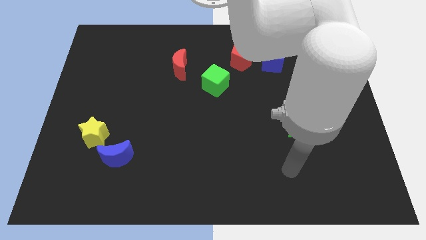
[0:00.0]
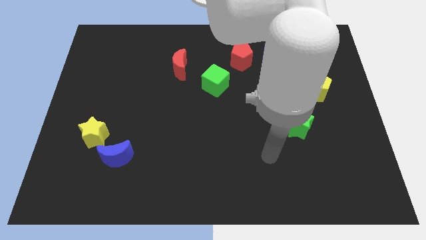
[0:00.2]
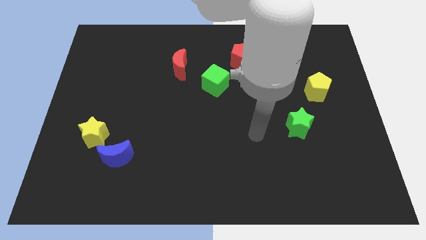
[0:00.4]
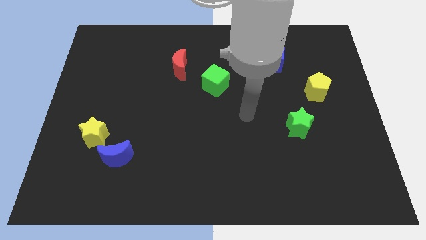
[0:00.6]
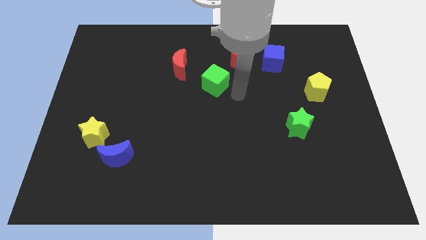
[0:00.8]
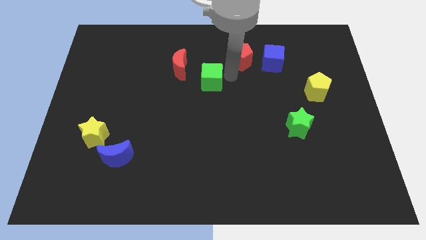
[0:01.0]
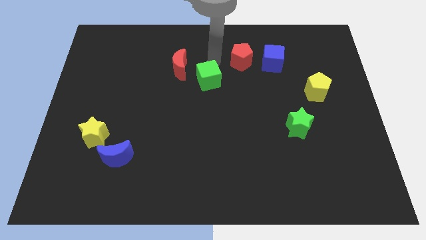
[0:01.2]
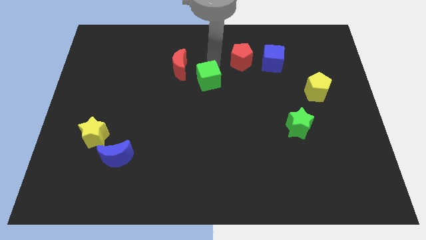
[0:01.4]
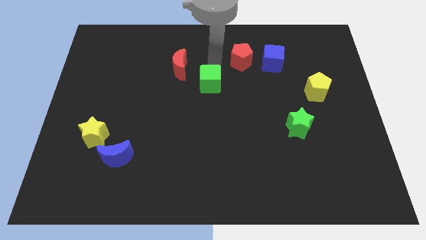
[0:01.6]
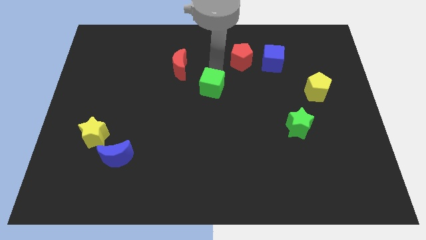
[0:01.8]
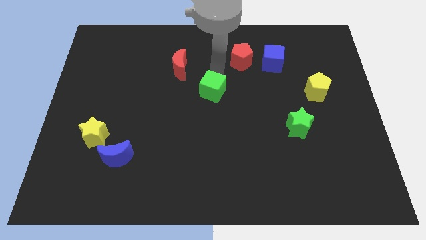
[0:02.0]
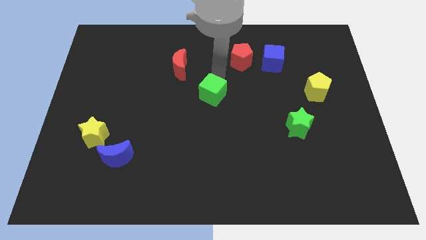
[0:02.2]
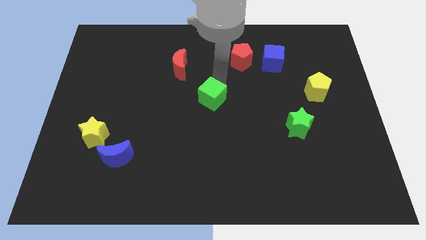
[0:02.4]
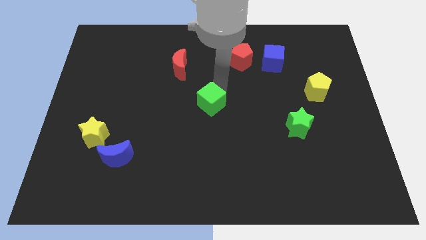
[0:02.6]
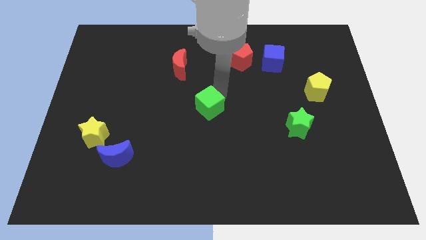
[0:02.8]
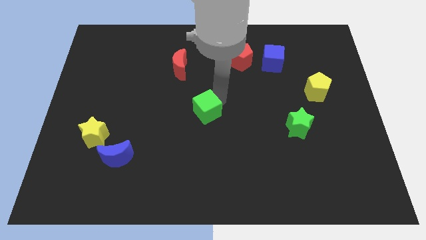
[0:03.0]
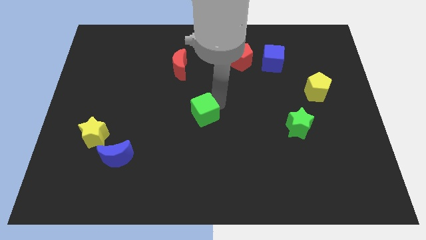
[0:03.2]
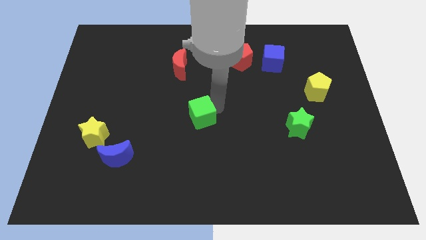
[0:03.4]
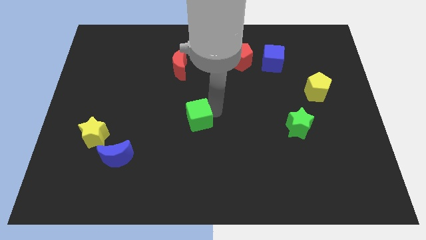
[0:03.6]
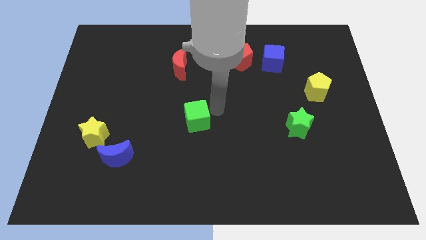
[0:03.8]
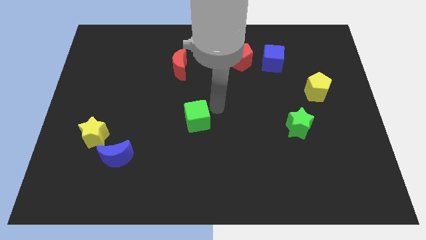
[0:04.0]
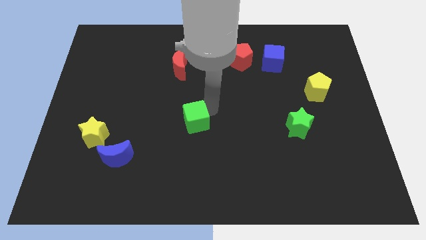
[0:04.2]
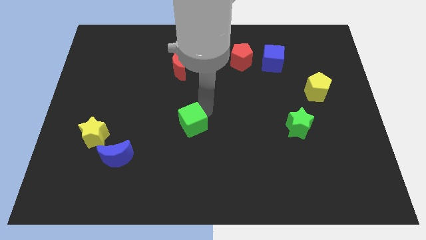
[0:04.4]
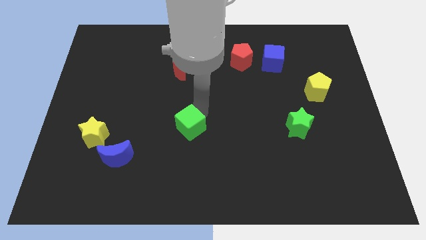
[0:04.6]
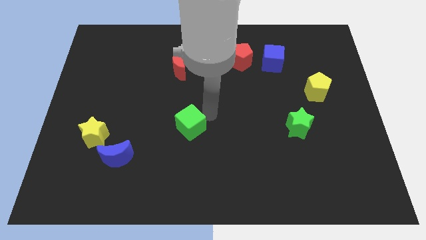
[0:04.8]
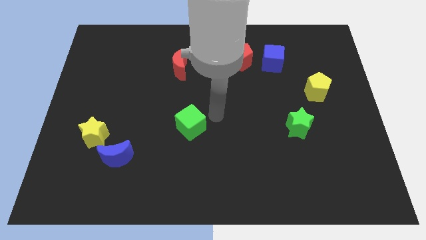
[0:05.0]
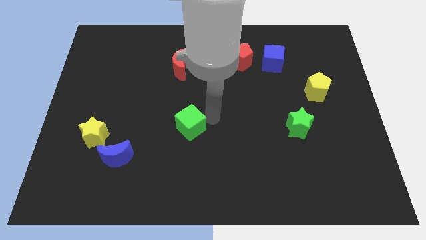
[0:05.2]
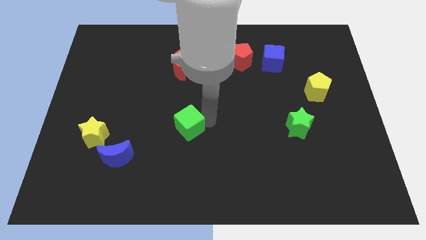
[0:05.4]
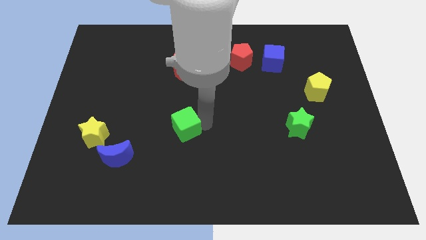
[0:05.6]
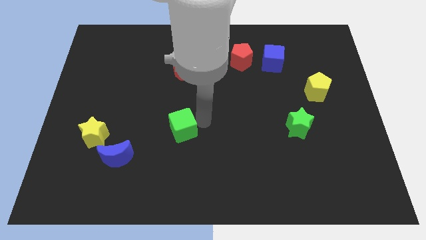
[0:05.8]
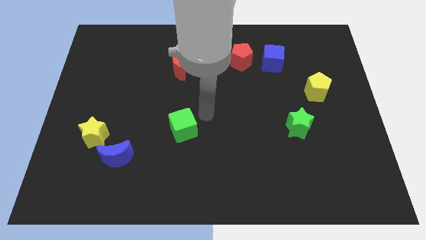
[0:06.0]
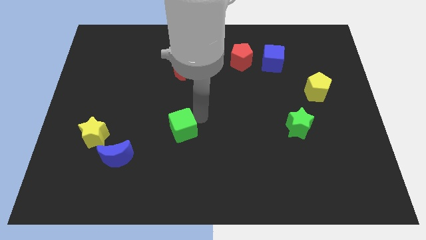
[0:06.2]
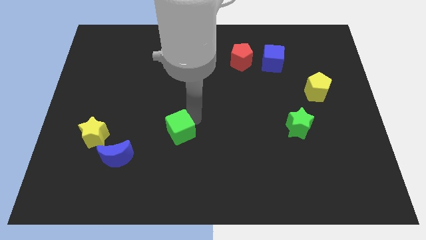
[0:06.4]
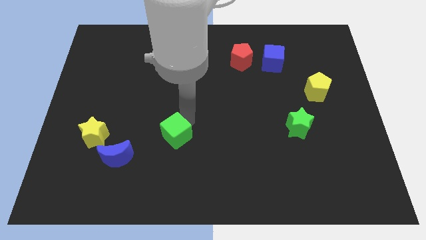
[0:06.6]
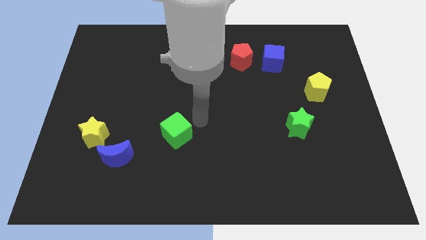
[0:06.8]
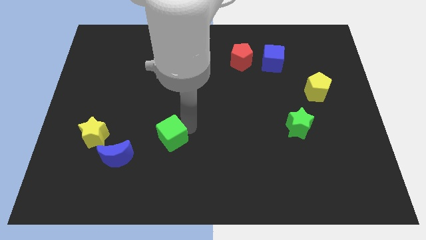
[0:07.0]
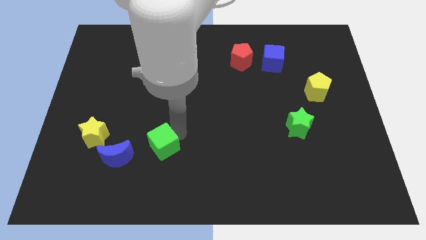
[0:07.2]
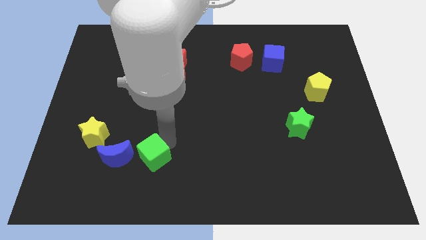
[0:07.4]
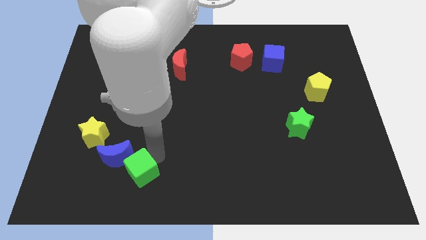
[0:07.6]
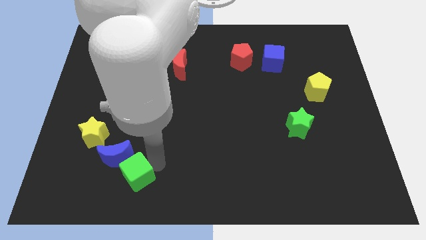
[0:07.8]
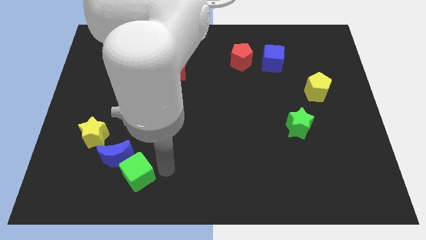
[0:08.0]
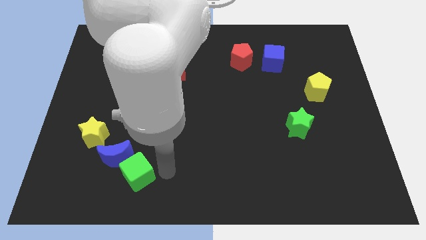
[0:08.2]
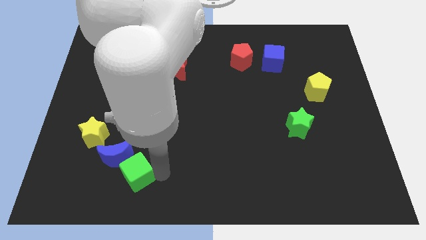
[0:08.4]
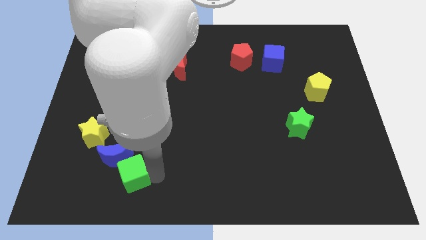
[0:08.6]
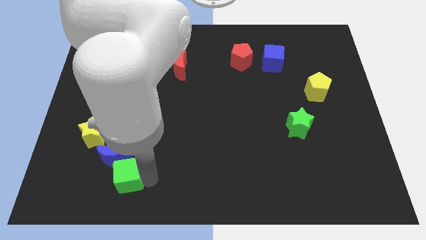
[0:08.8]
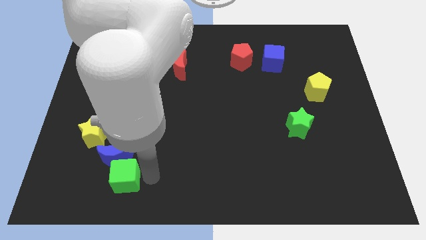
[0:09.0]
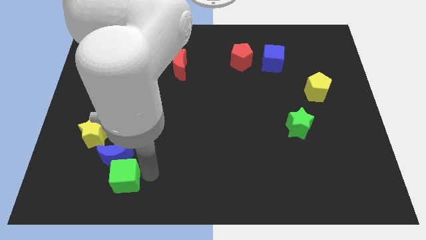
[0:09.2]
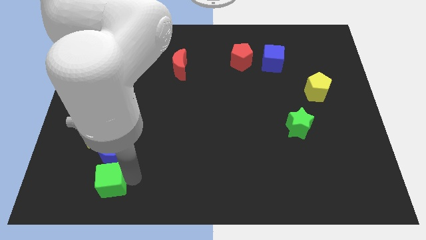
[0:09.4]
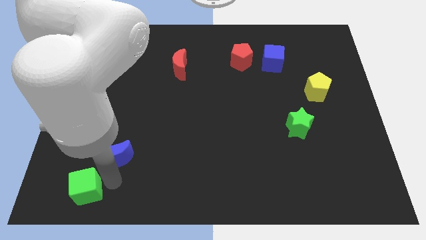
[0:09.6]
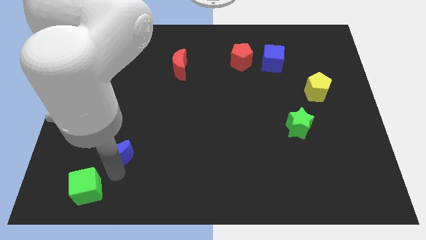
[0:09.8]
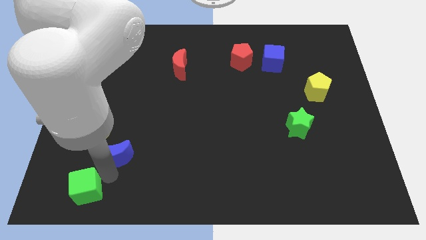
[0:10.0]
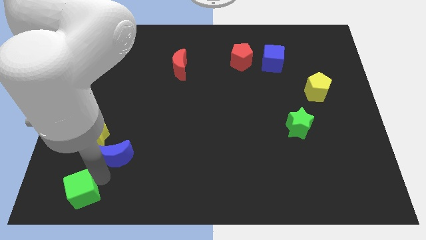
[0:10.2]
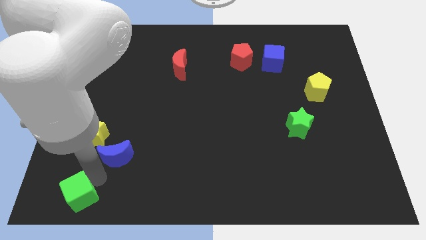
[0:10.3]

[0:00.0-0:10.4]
slide the green cube to the bottom left of the board

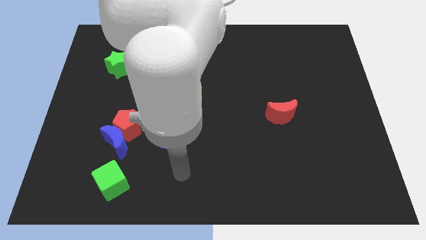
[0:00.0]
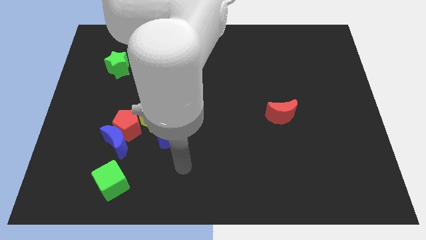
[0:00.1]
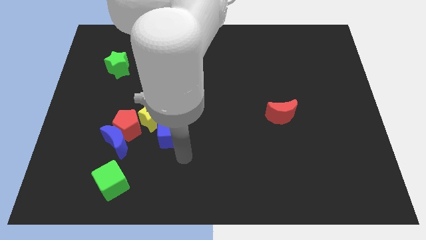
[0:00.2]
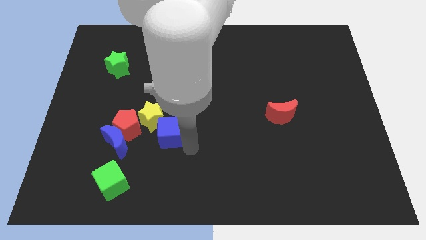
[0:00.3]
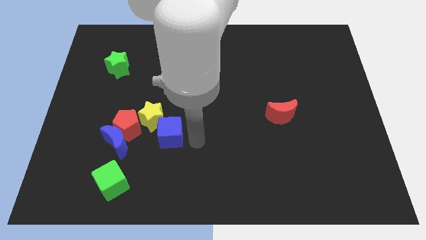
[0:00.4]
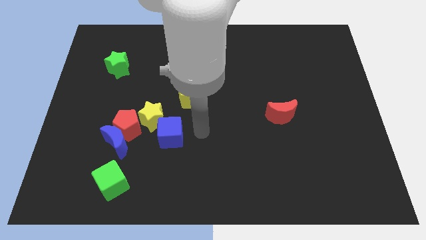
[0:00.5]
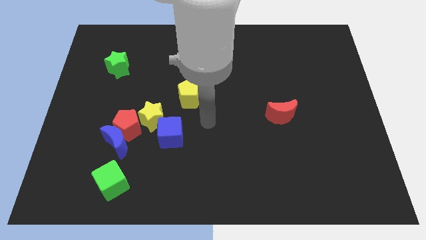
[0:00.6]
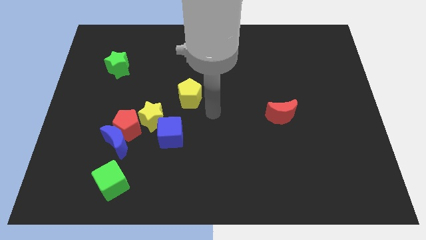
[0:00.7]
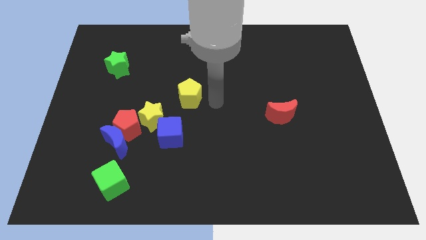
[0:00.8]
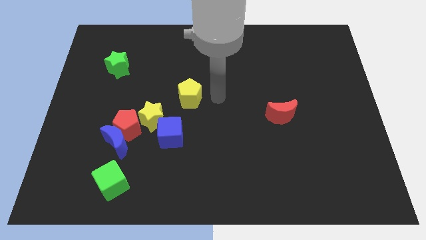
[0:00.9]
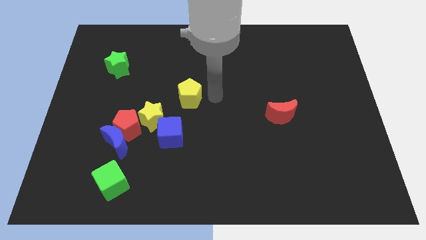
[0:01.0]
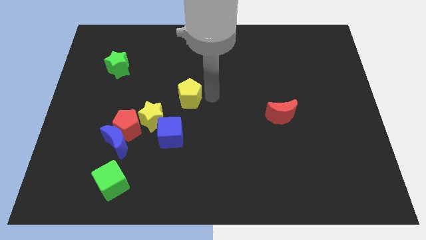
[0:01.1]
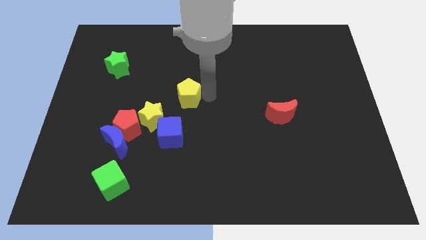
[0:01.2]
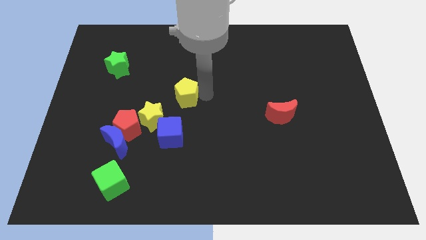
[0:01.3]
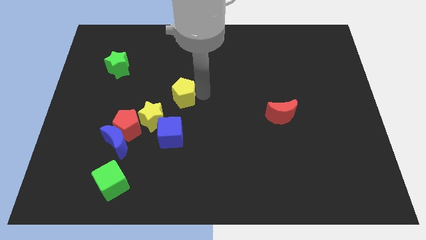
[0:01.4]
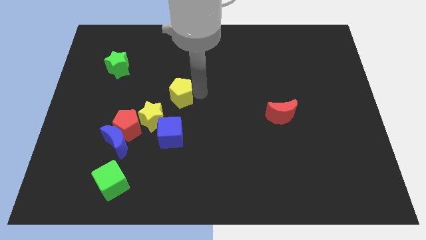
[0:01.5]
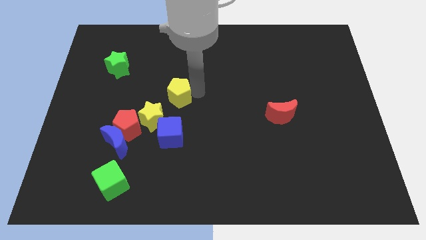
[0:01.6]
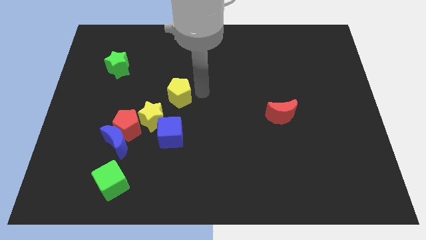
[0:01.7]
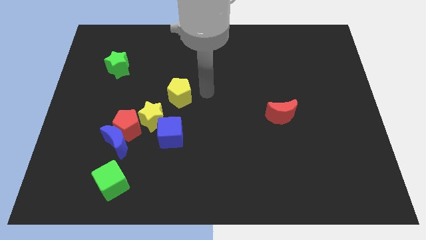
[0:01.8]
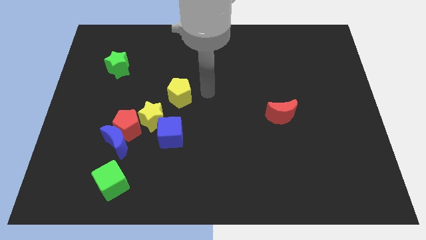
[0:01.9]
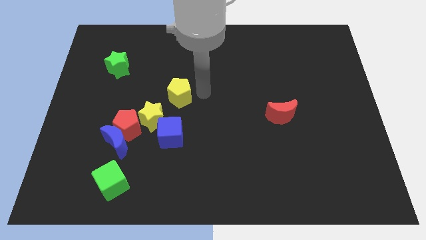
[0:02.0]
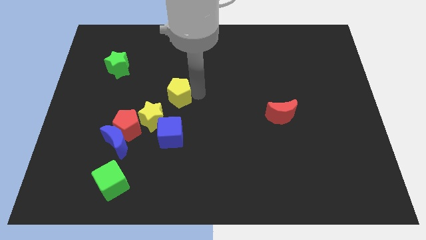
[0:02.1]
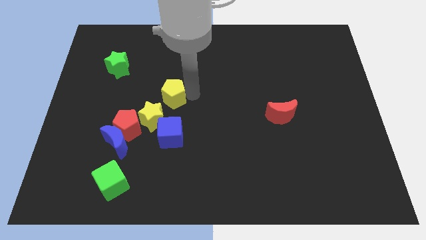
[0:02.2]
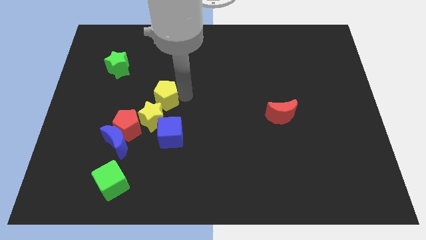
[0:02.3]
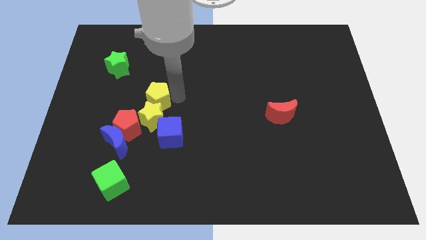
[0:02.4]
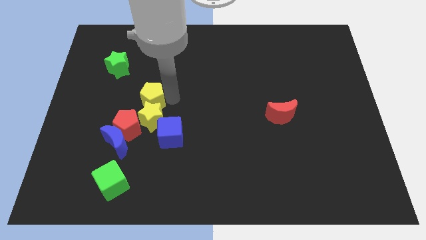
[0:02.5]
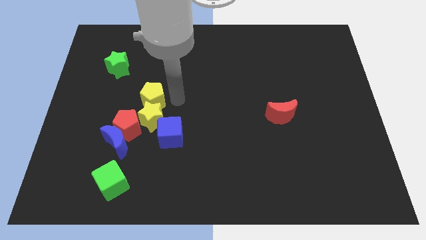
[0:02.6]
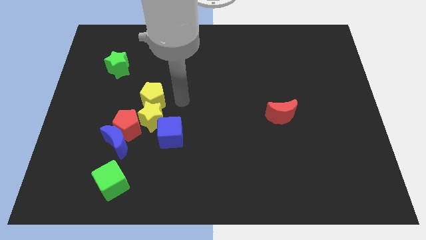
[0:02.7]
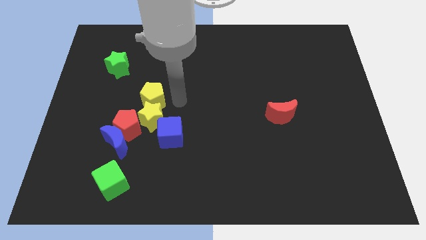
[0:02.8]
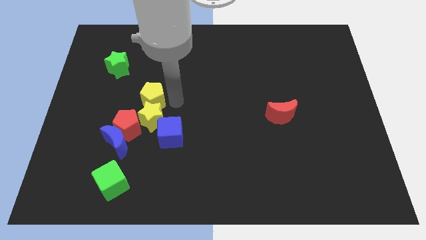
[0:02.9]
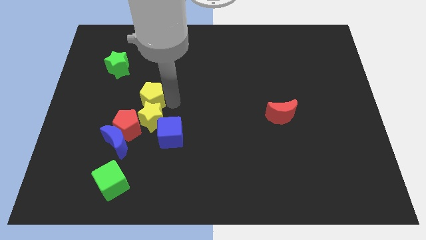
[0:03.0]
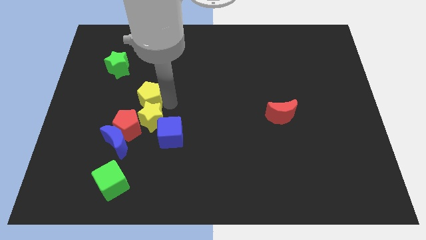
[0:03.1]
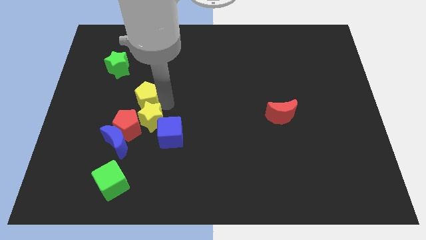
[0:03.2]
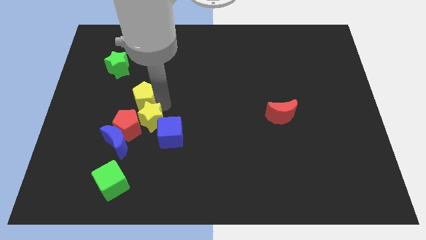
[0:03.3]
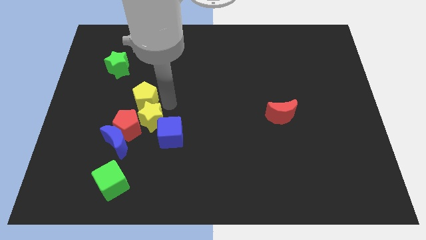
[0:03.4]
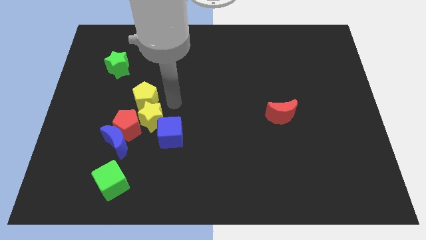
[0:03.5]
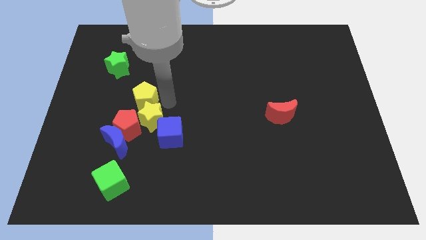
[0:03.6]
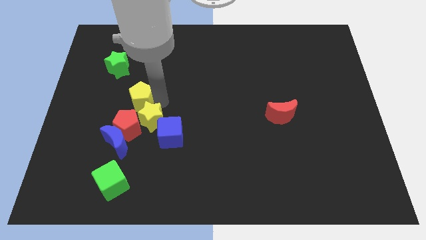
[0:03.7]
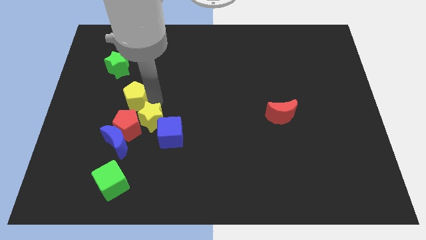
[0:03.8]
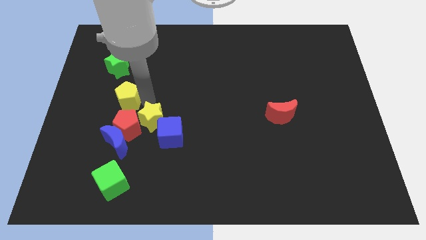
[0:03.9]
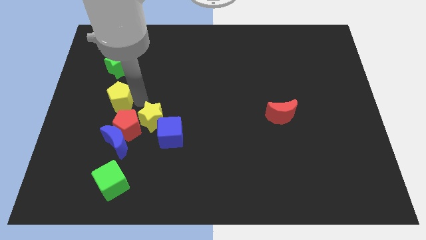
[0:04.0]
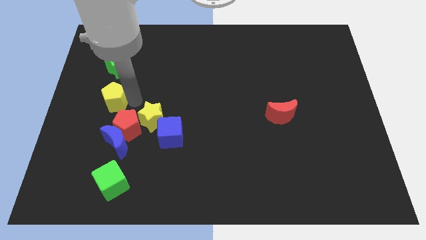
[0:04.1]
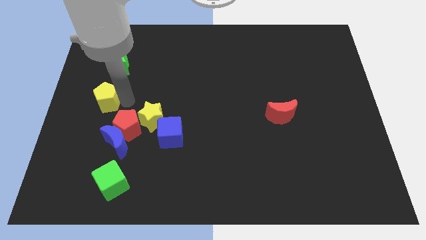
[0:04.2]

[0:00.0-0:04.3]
put the yellow pentagon to the left side
